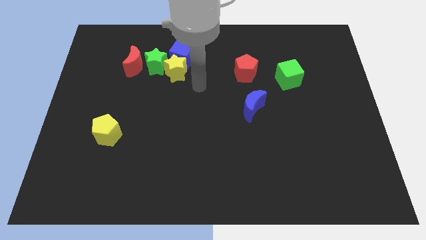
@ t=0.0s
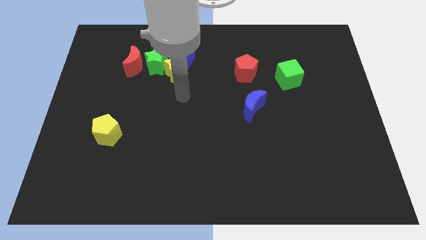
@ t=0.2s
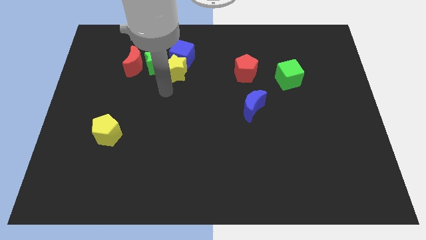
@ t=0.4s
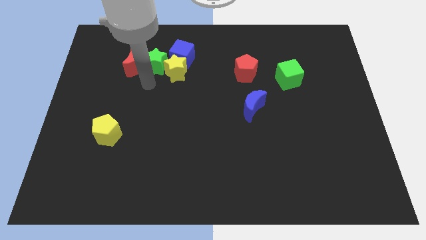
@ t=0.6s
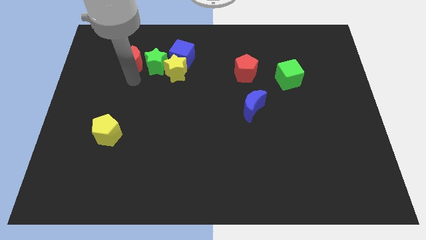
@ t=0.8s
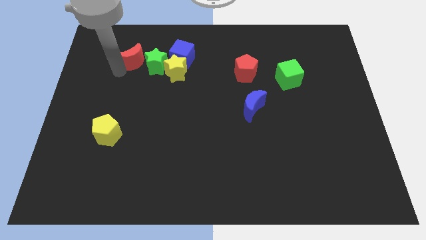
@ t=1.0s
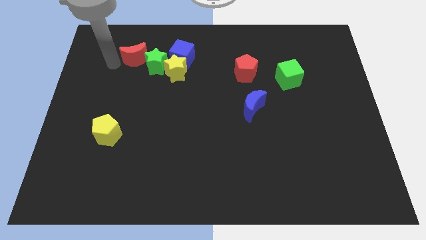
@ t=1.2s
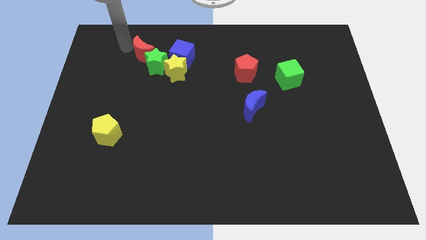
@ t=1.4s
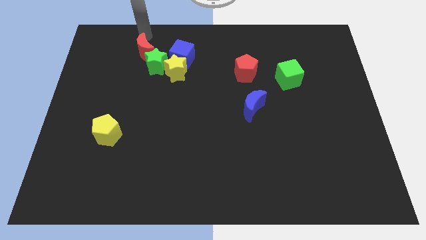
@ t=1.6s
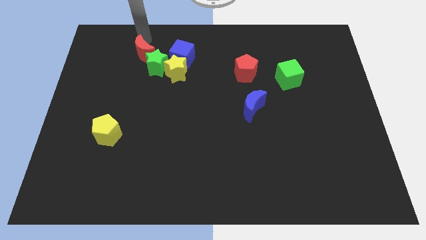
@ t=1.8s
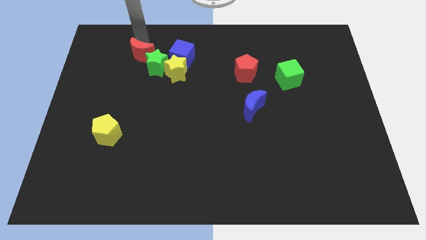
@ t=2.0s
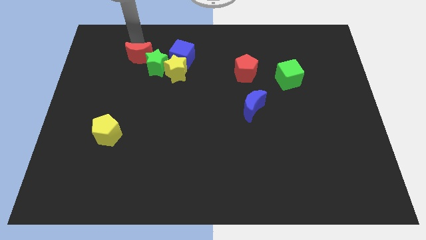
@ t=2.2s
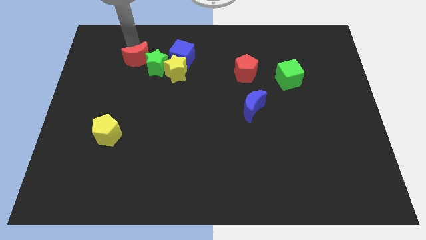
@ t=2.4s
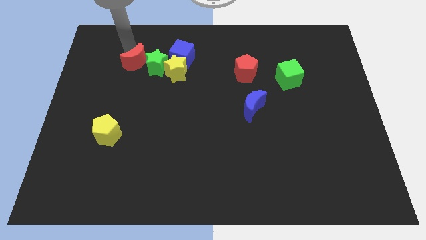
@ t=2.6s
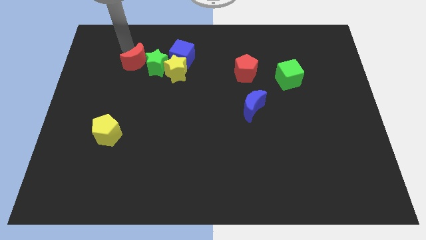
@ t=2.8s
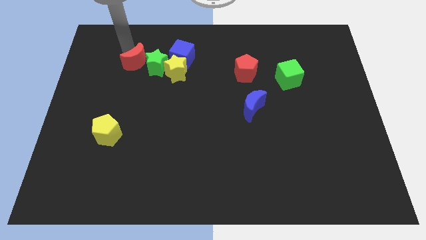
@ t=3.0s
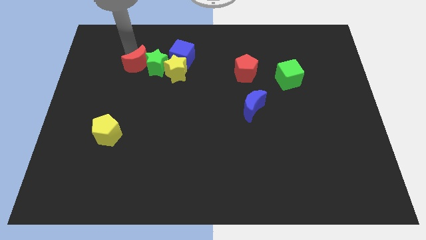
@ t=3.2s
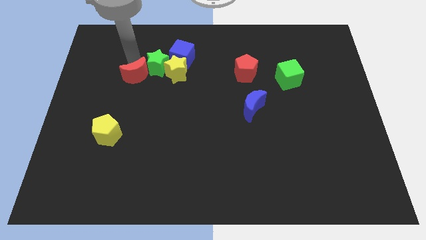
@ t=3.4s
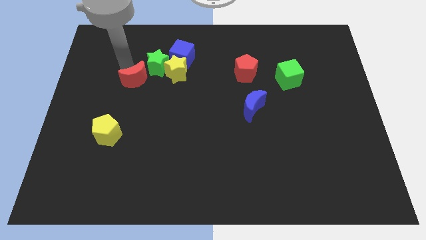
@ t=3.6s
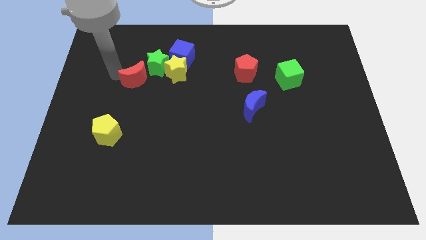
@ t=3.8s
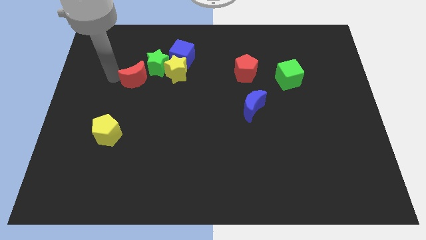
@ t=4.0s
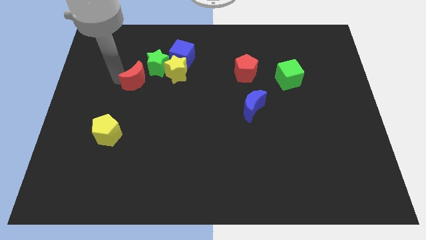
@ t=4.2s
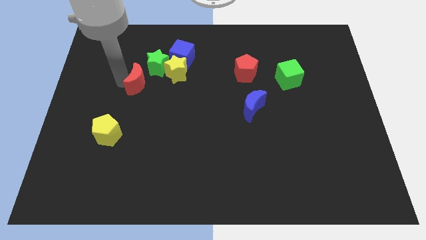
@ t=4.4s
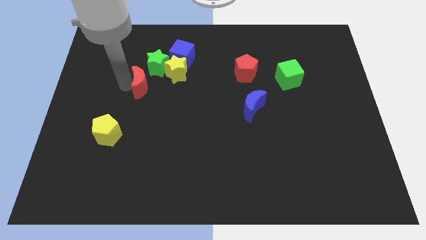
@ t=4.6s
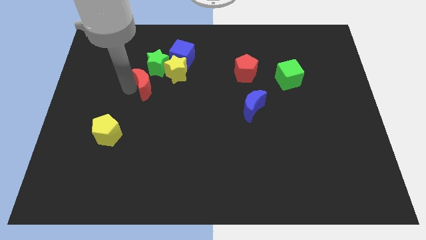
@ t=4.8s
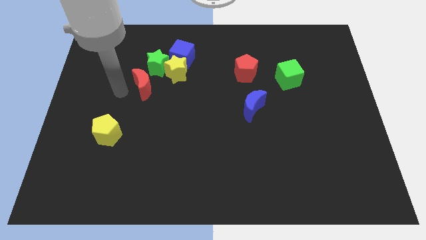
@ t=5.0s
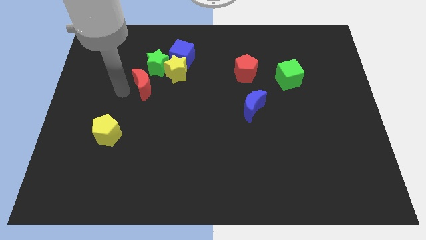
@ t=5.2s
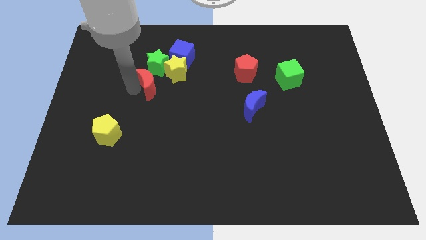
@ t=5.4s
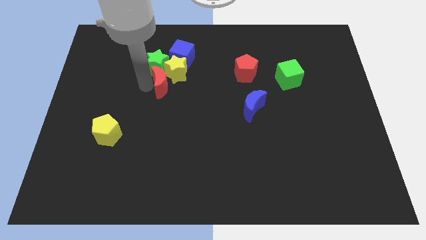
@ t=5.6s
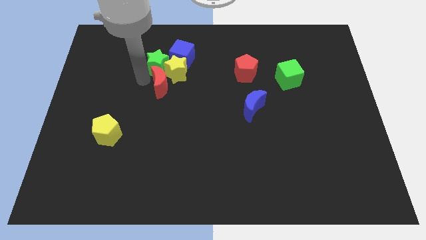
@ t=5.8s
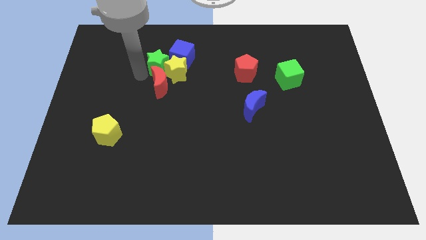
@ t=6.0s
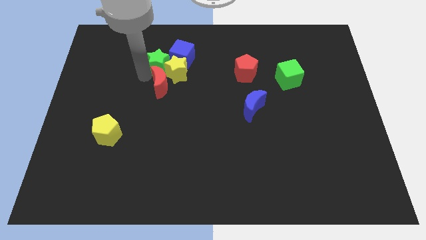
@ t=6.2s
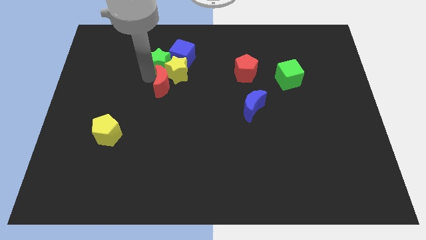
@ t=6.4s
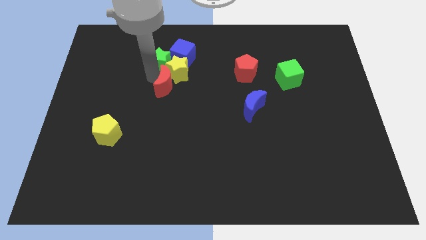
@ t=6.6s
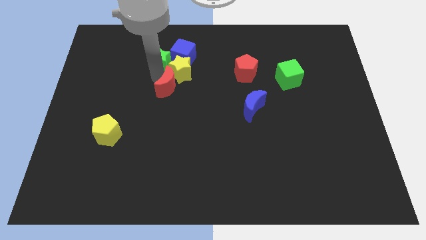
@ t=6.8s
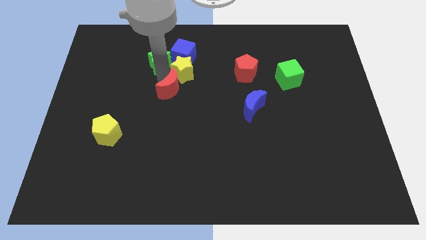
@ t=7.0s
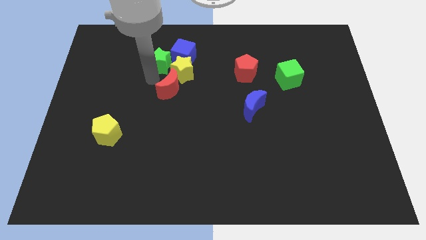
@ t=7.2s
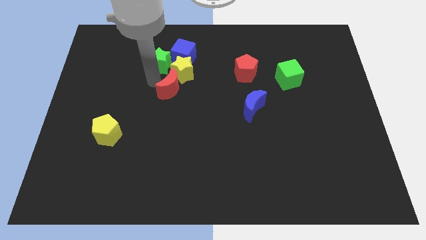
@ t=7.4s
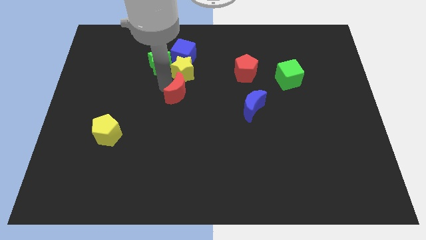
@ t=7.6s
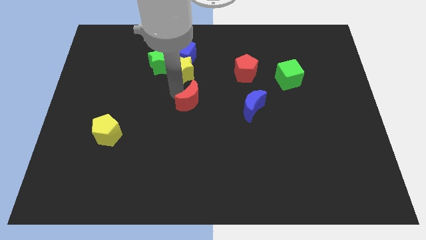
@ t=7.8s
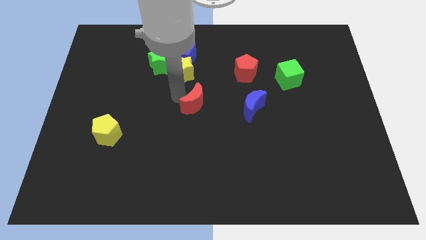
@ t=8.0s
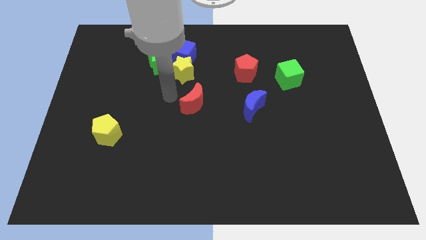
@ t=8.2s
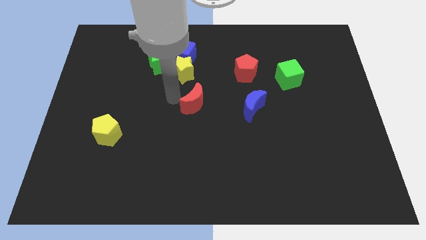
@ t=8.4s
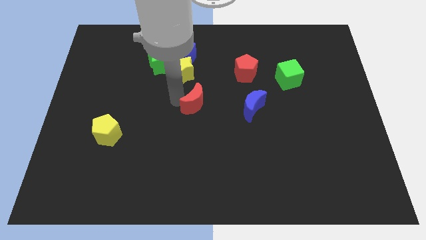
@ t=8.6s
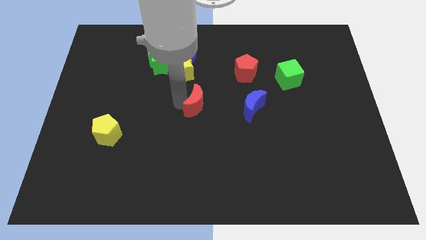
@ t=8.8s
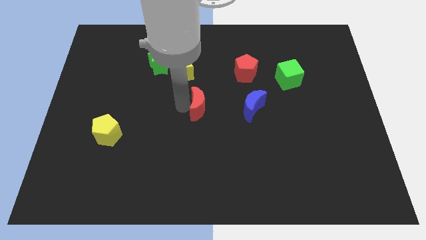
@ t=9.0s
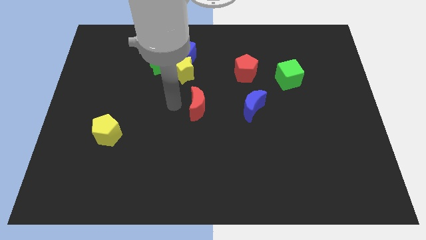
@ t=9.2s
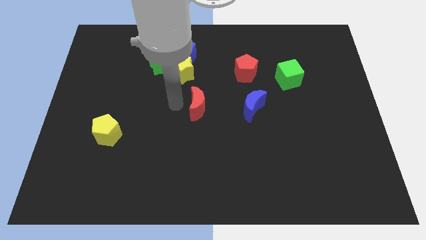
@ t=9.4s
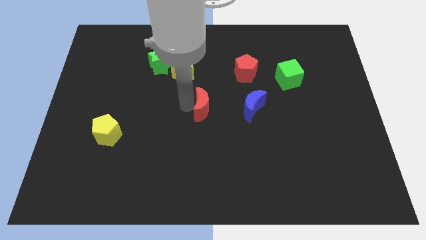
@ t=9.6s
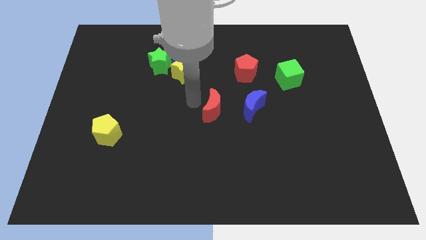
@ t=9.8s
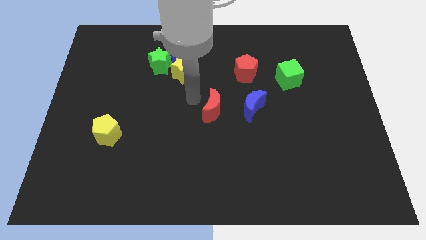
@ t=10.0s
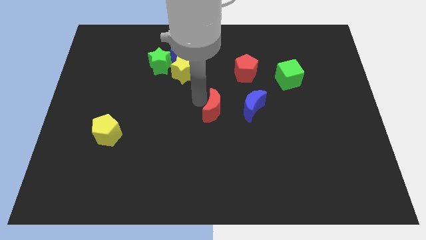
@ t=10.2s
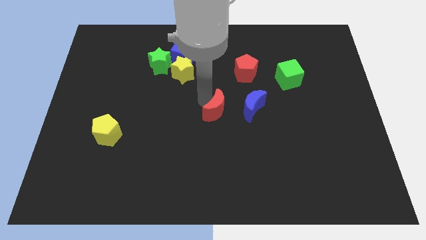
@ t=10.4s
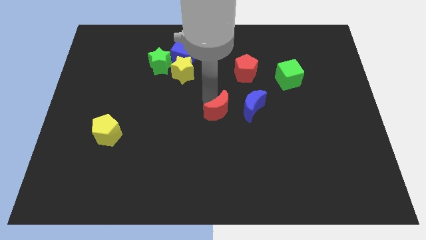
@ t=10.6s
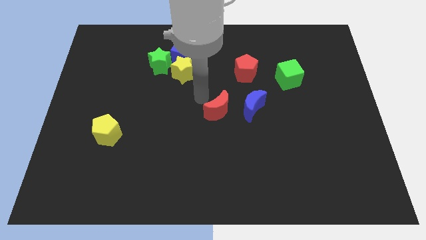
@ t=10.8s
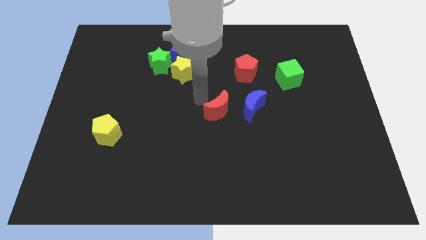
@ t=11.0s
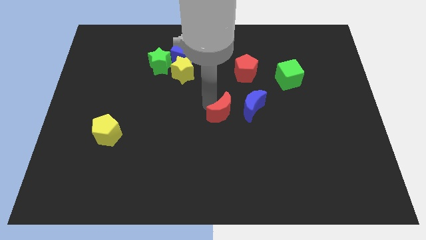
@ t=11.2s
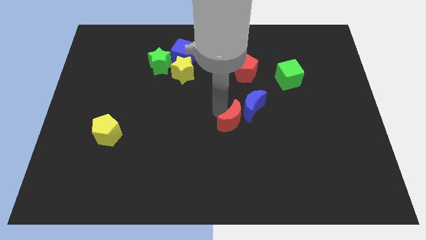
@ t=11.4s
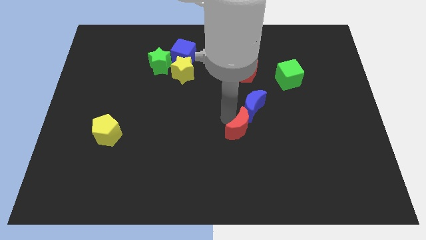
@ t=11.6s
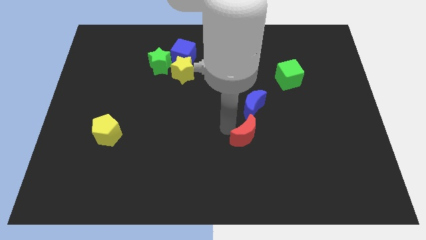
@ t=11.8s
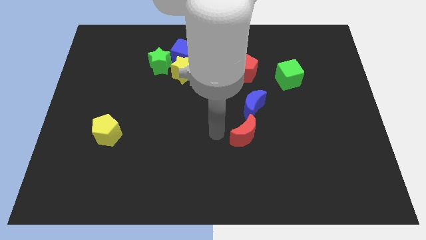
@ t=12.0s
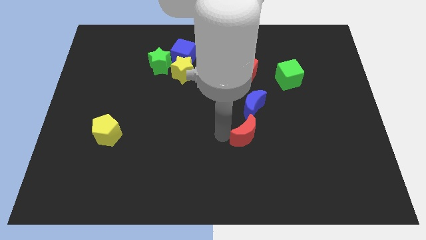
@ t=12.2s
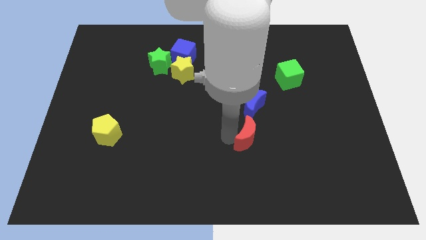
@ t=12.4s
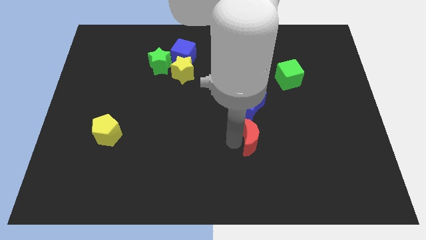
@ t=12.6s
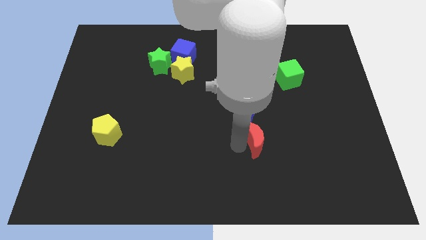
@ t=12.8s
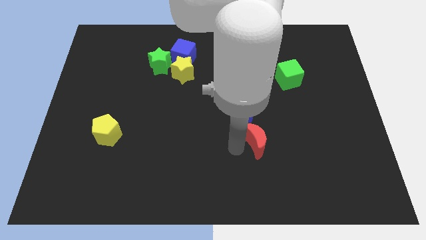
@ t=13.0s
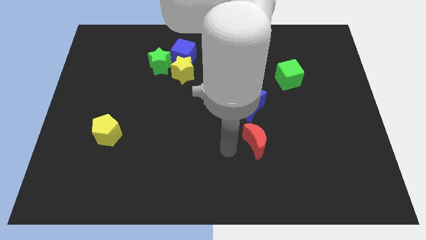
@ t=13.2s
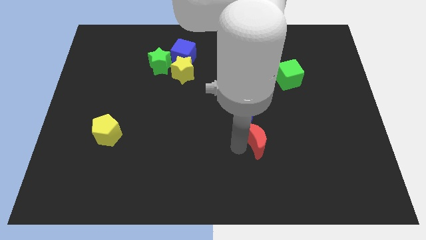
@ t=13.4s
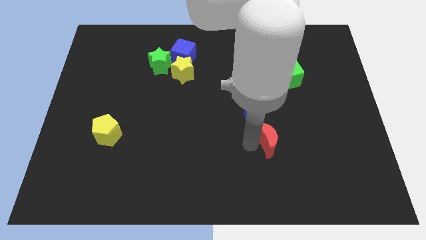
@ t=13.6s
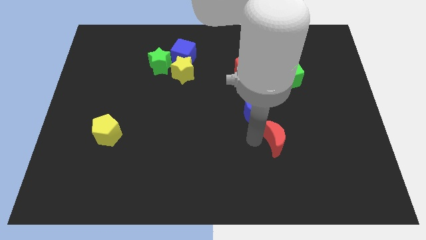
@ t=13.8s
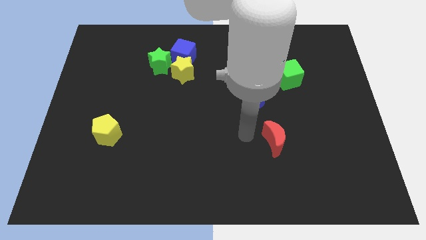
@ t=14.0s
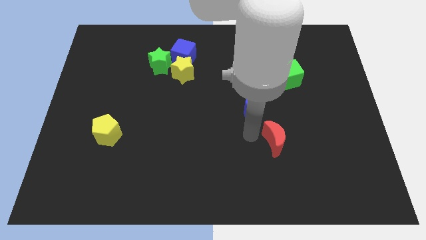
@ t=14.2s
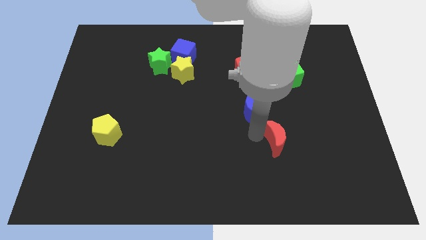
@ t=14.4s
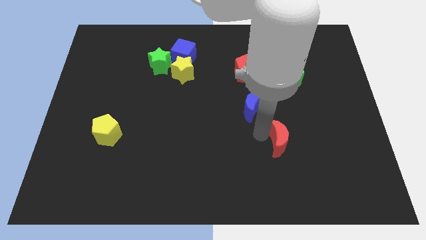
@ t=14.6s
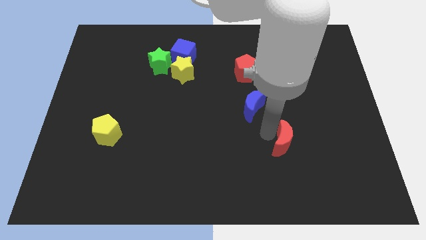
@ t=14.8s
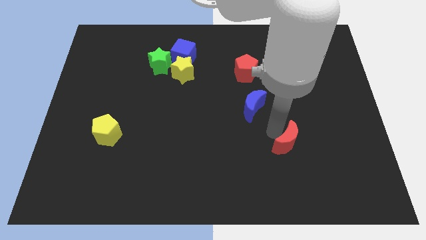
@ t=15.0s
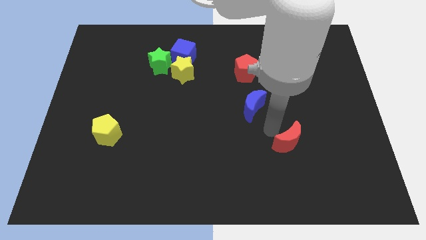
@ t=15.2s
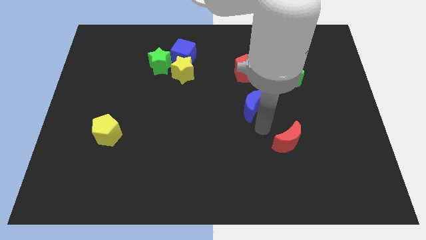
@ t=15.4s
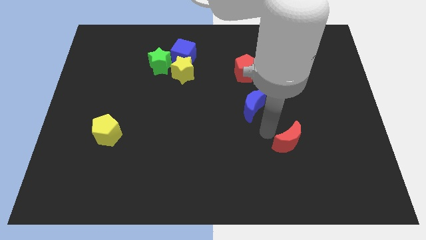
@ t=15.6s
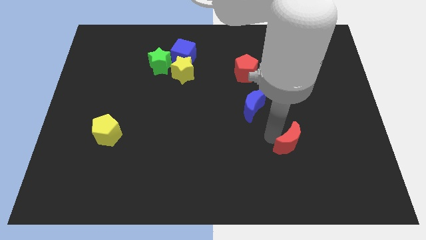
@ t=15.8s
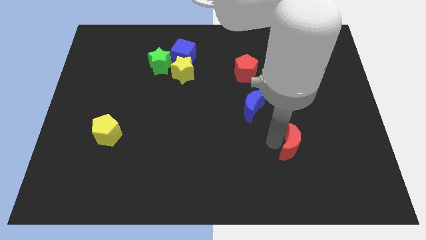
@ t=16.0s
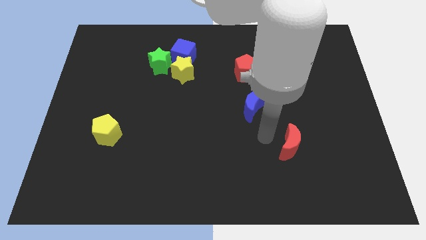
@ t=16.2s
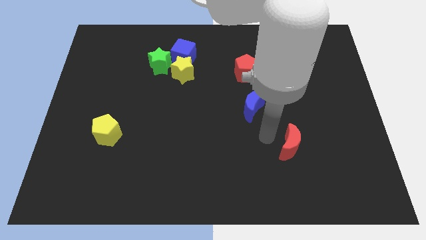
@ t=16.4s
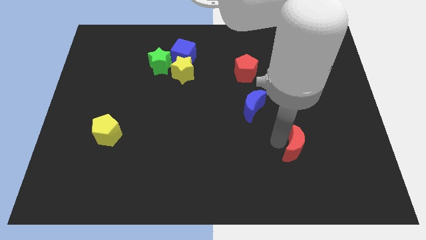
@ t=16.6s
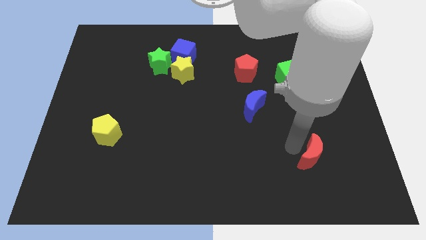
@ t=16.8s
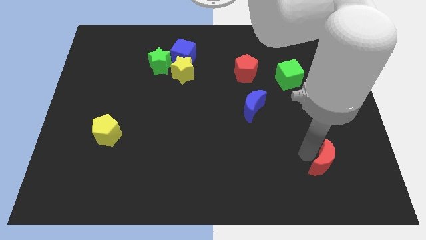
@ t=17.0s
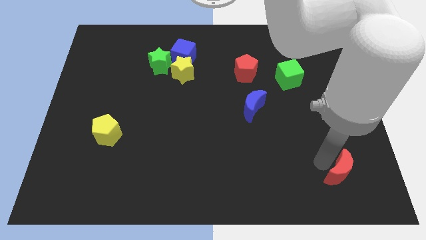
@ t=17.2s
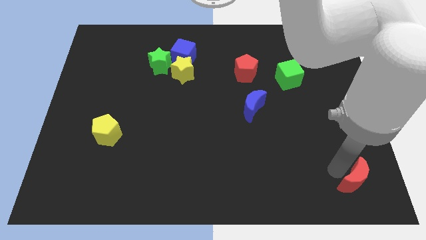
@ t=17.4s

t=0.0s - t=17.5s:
push the red moon to the bottom right
